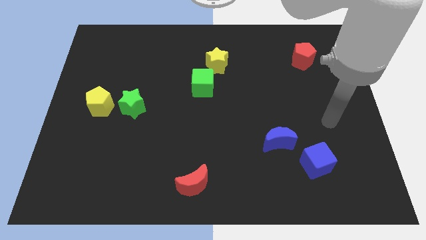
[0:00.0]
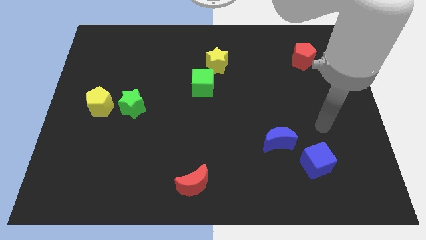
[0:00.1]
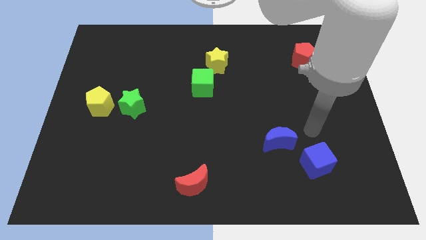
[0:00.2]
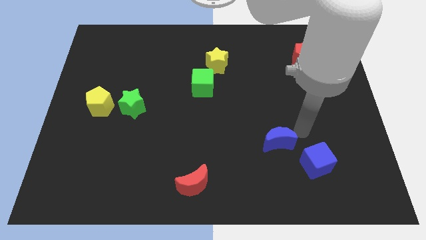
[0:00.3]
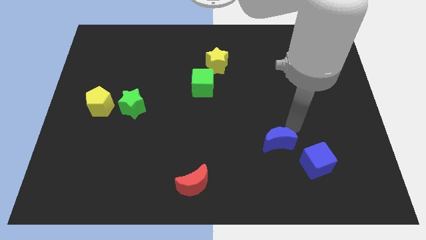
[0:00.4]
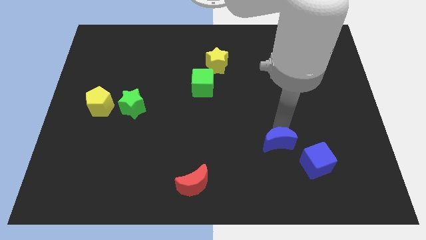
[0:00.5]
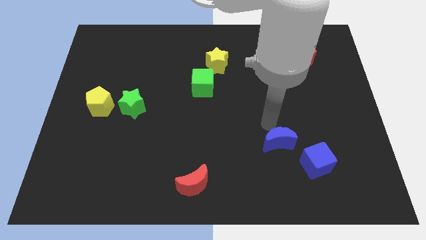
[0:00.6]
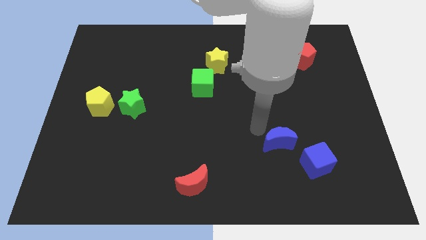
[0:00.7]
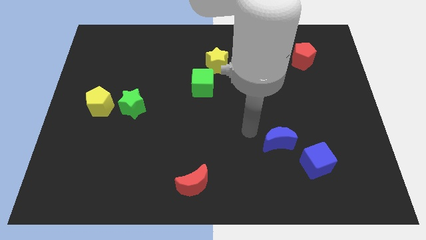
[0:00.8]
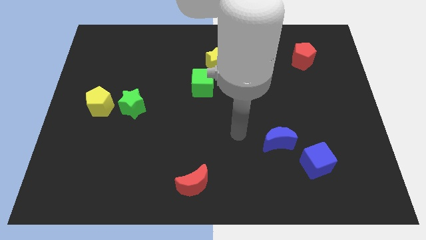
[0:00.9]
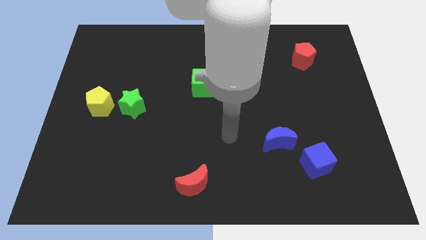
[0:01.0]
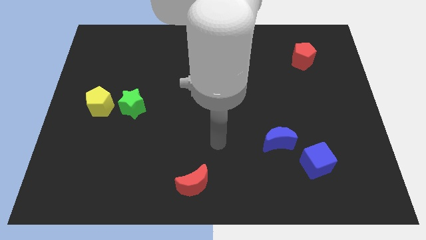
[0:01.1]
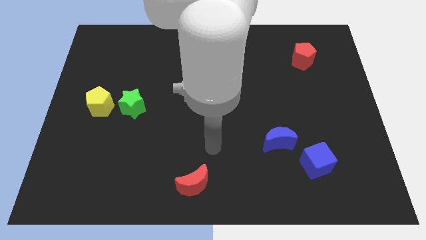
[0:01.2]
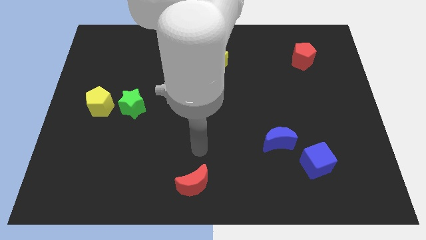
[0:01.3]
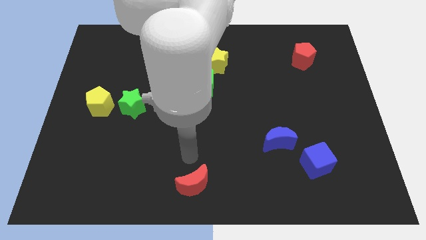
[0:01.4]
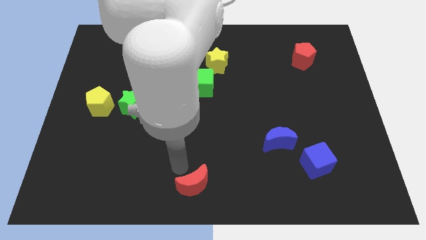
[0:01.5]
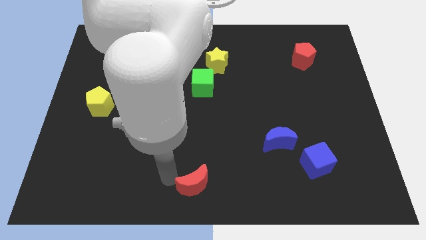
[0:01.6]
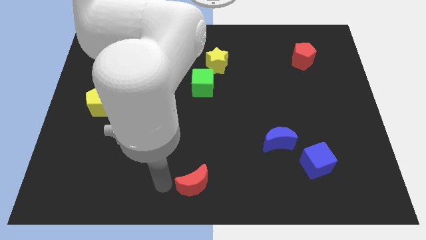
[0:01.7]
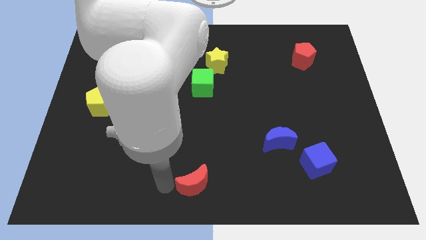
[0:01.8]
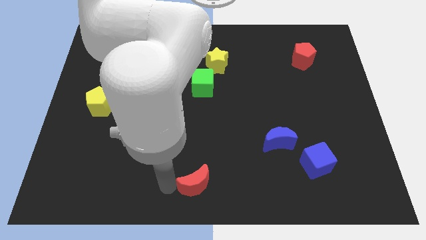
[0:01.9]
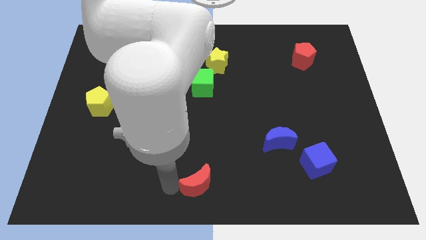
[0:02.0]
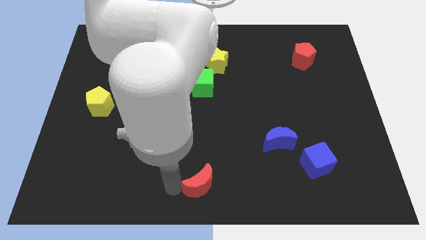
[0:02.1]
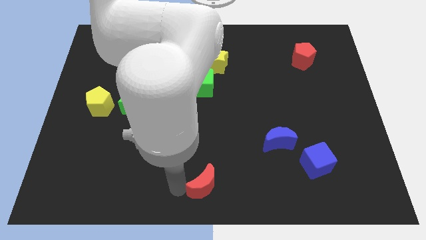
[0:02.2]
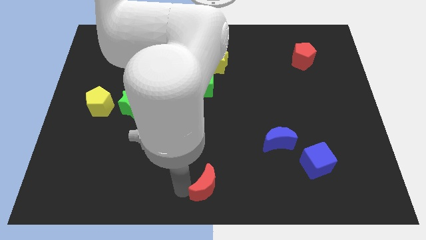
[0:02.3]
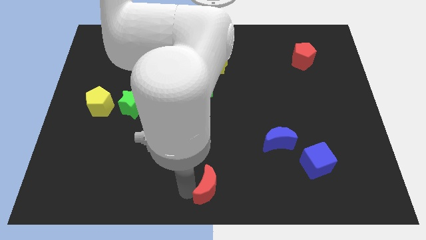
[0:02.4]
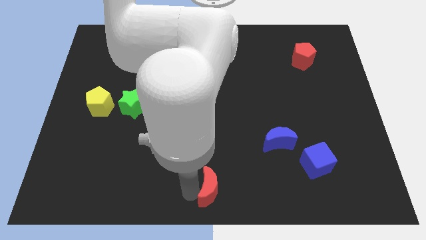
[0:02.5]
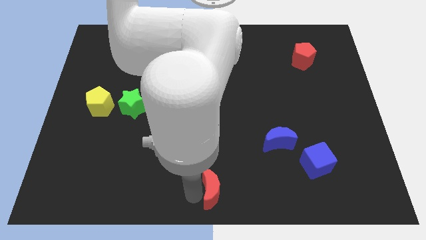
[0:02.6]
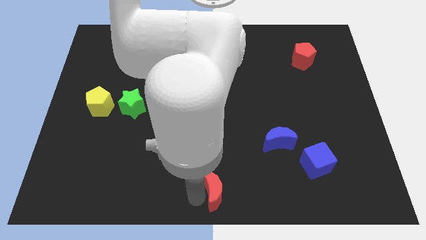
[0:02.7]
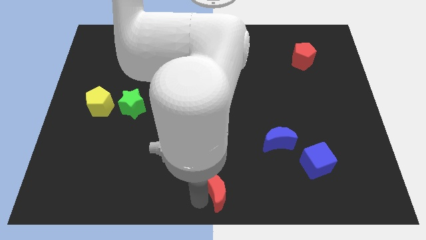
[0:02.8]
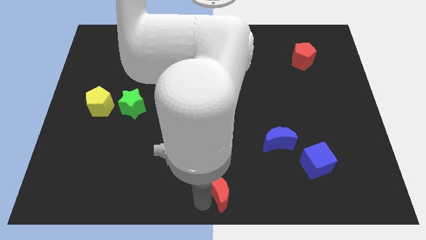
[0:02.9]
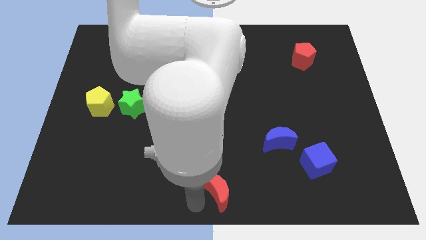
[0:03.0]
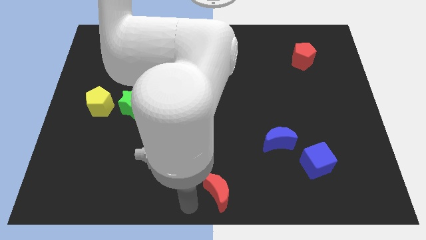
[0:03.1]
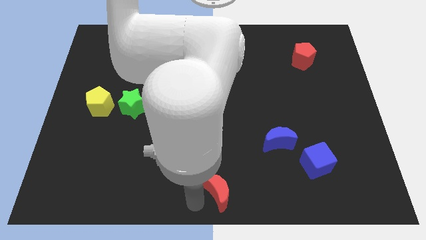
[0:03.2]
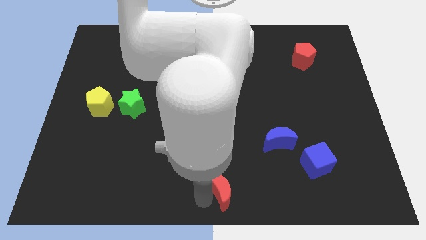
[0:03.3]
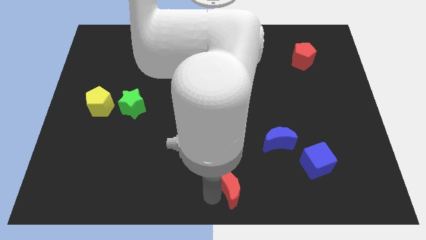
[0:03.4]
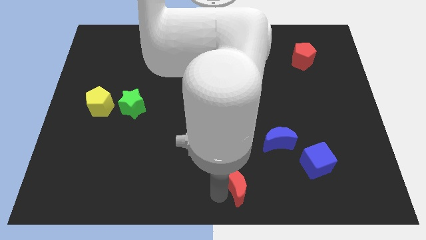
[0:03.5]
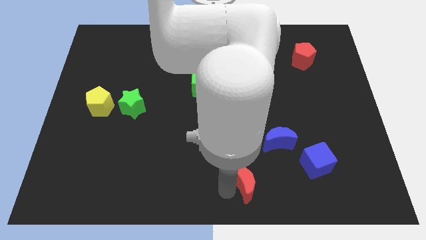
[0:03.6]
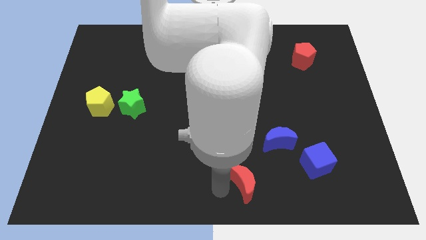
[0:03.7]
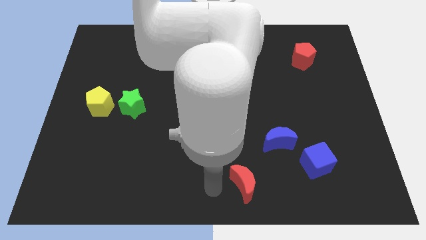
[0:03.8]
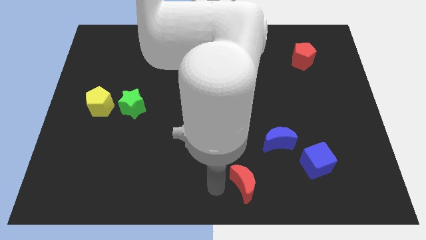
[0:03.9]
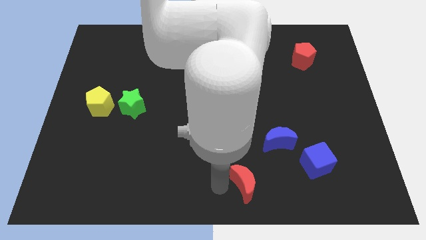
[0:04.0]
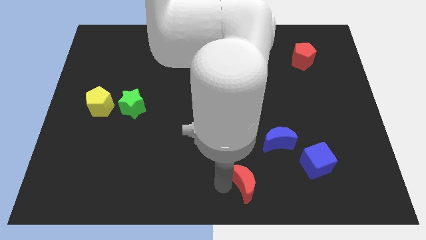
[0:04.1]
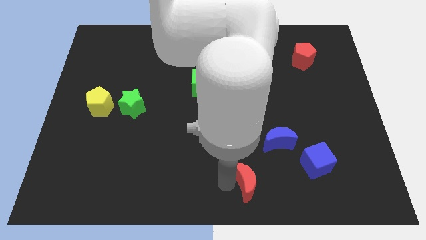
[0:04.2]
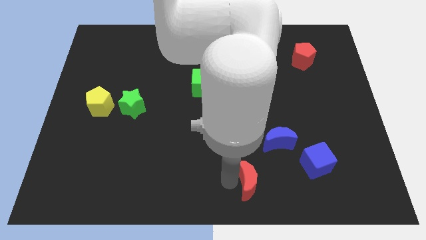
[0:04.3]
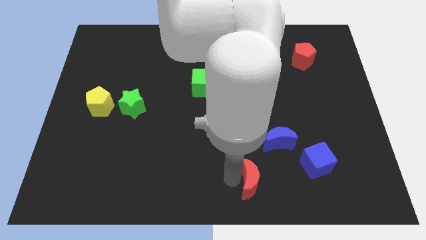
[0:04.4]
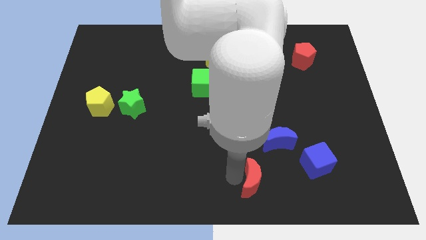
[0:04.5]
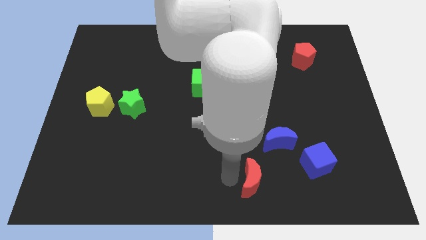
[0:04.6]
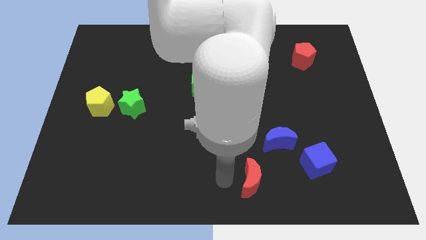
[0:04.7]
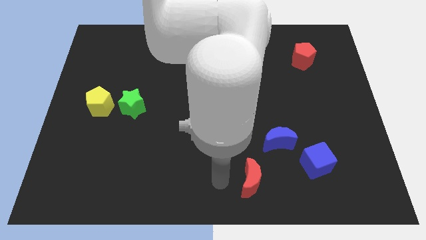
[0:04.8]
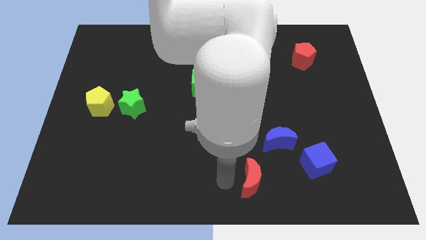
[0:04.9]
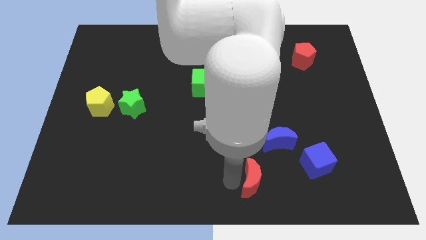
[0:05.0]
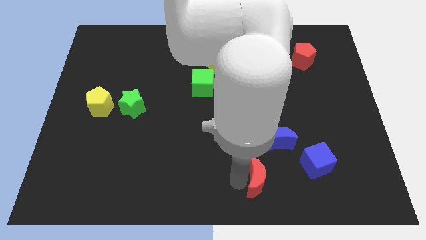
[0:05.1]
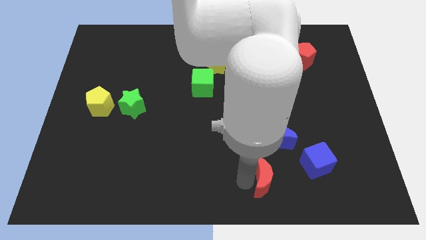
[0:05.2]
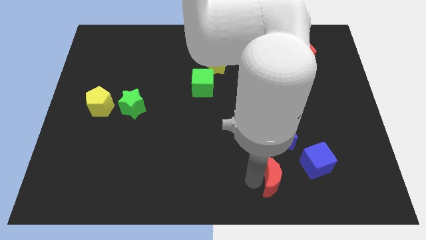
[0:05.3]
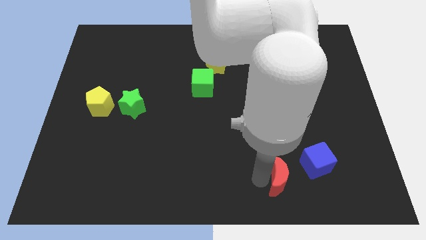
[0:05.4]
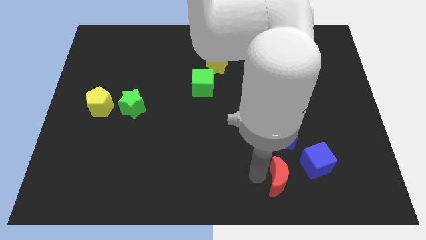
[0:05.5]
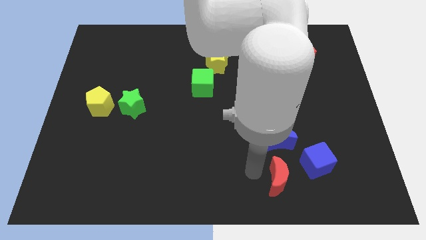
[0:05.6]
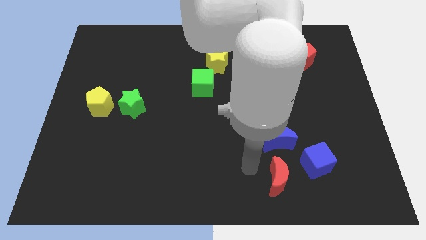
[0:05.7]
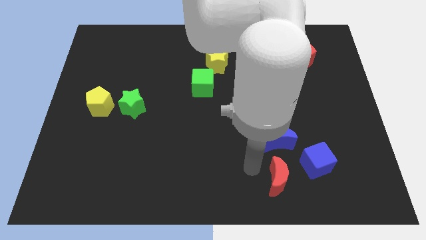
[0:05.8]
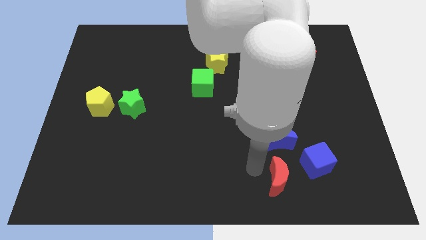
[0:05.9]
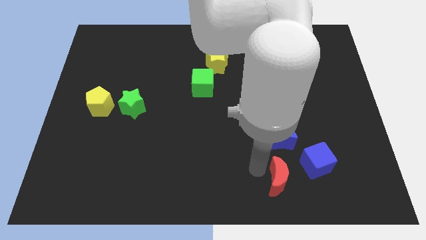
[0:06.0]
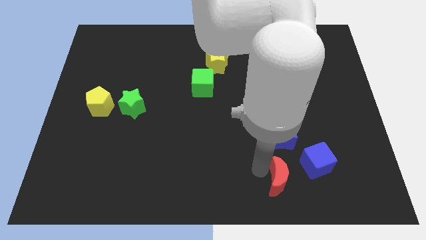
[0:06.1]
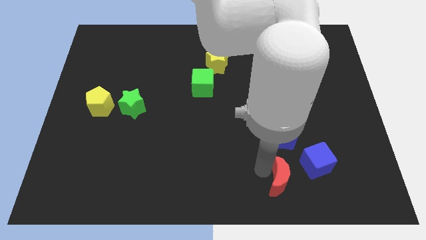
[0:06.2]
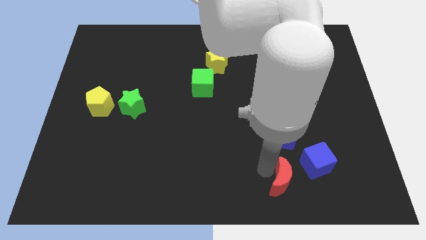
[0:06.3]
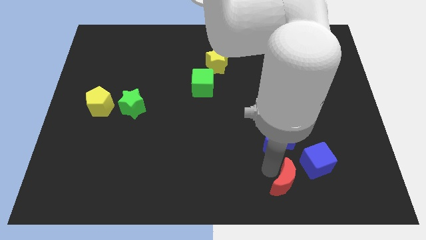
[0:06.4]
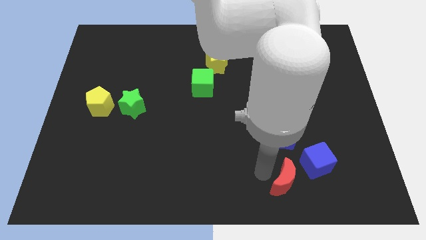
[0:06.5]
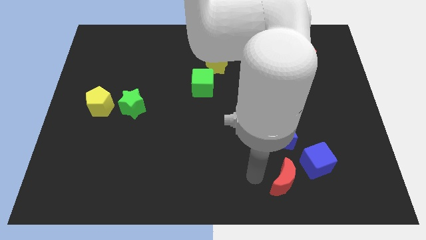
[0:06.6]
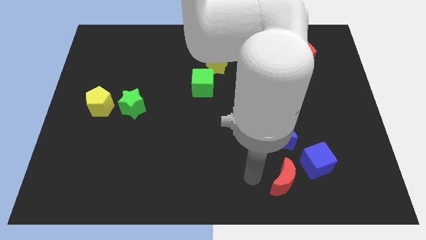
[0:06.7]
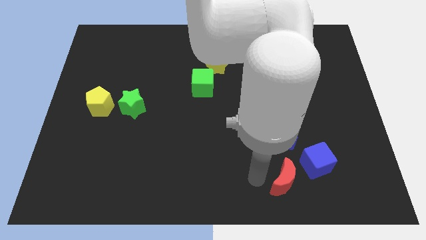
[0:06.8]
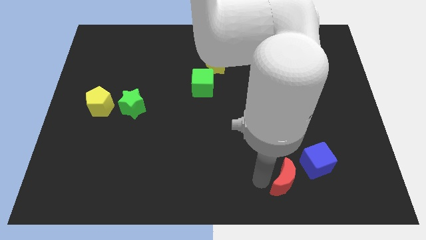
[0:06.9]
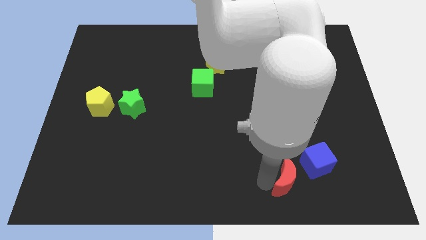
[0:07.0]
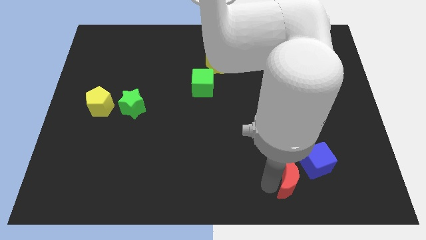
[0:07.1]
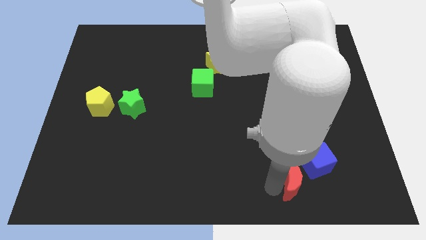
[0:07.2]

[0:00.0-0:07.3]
move the red moon to the right

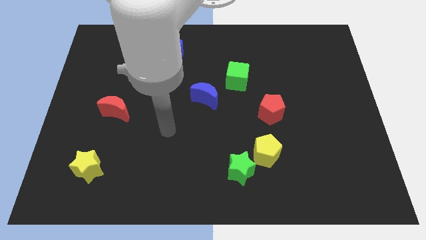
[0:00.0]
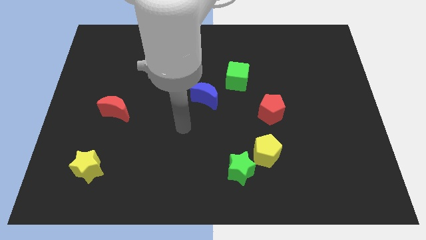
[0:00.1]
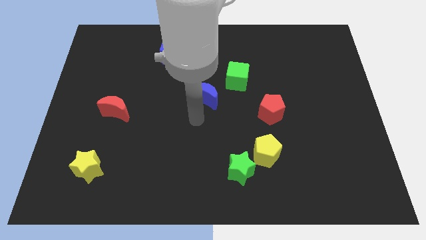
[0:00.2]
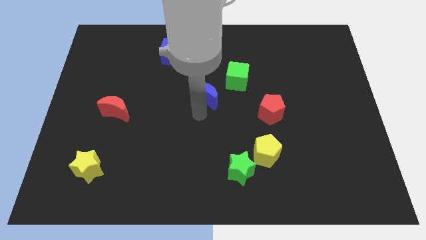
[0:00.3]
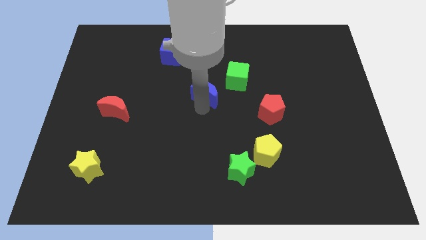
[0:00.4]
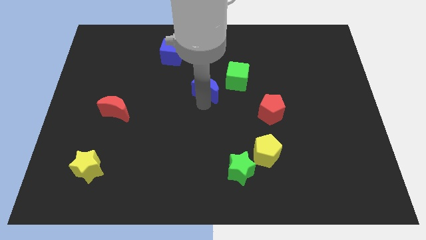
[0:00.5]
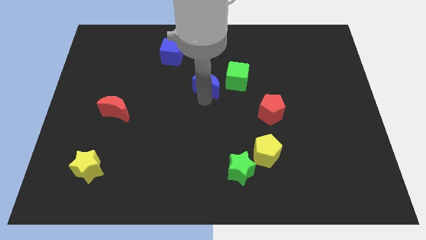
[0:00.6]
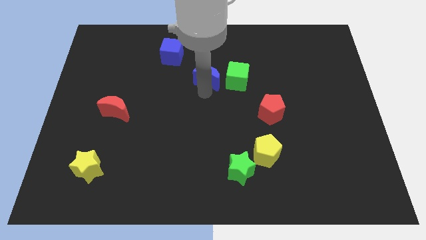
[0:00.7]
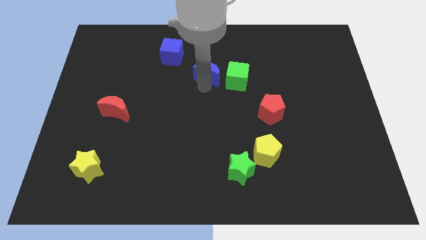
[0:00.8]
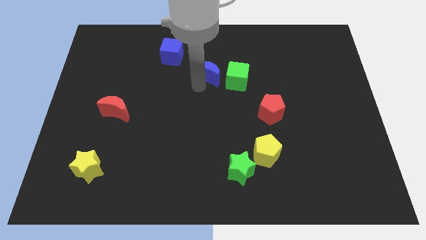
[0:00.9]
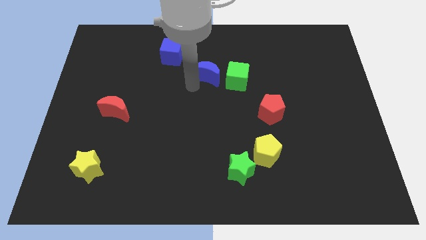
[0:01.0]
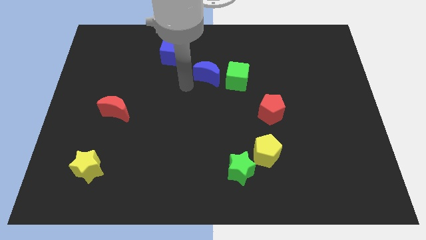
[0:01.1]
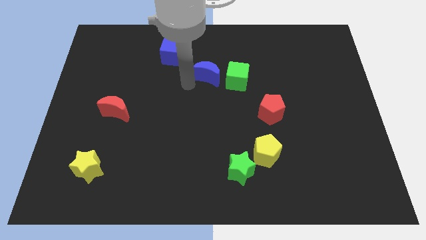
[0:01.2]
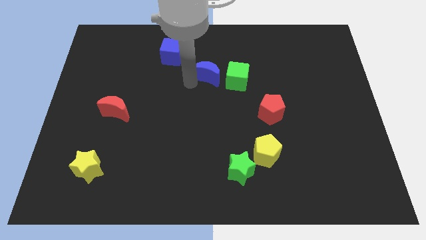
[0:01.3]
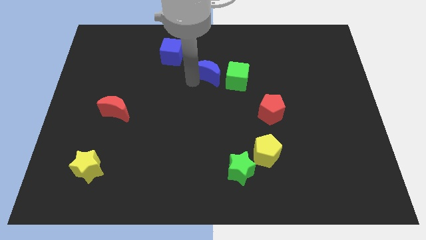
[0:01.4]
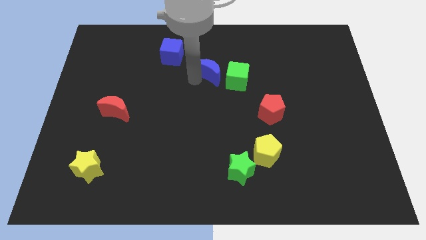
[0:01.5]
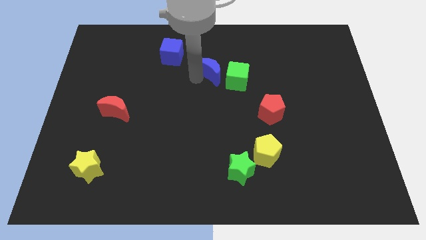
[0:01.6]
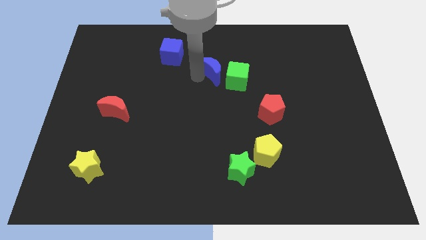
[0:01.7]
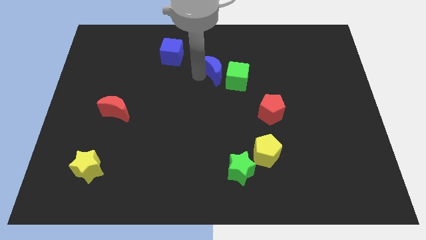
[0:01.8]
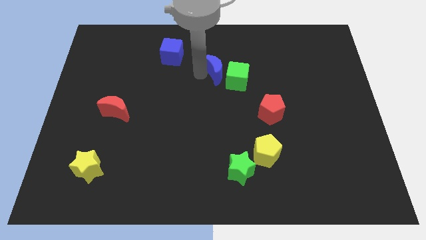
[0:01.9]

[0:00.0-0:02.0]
slightly slide the blue moon up and right diagonally
